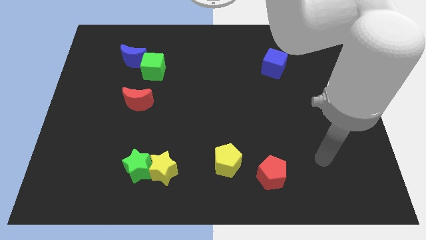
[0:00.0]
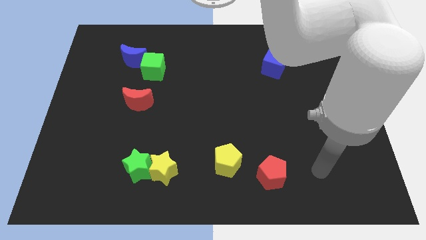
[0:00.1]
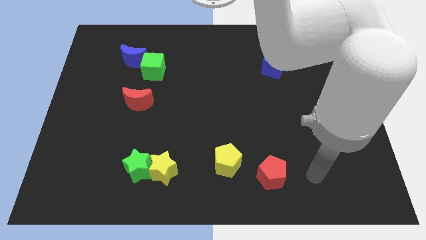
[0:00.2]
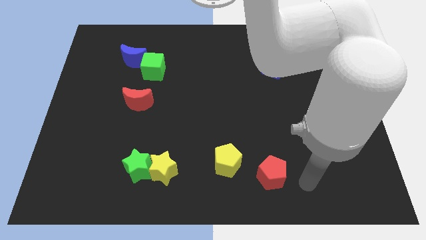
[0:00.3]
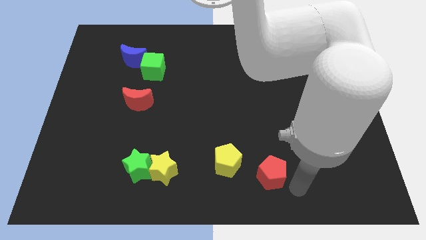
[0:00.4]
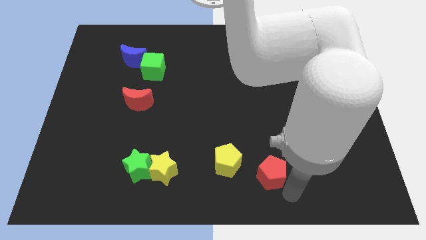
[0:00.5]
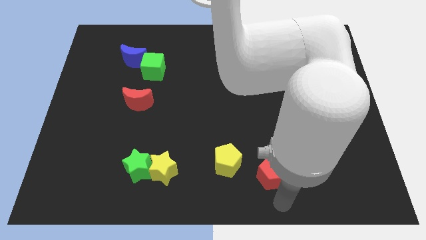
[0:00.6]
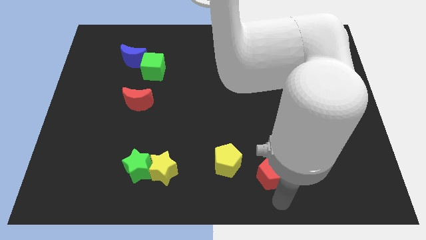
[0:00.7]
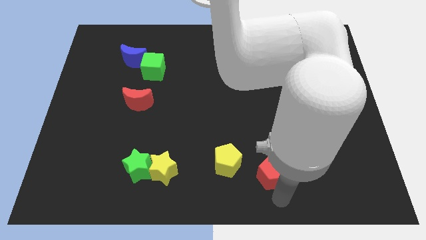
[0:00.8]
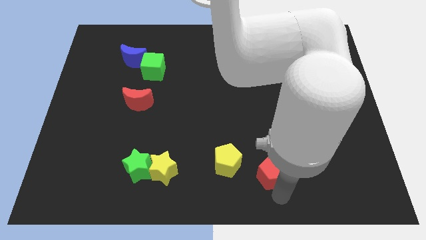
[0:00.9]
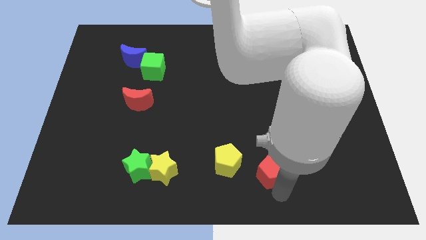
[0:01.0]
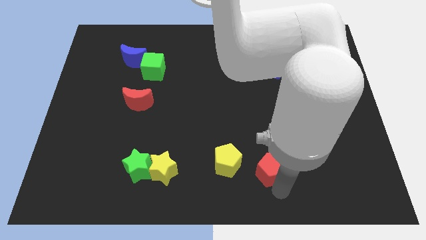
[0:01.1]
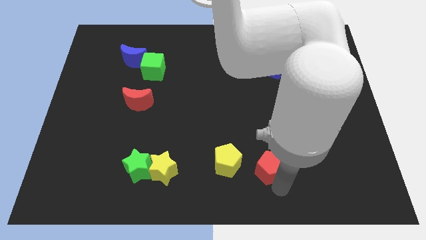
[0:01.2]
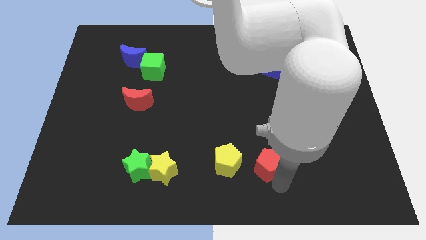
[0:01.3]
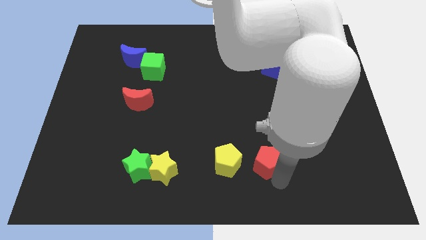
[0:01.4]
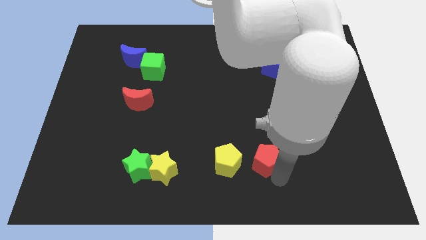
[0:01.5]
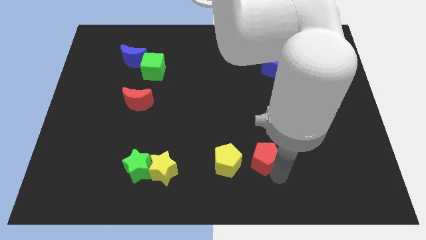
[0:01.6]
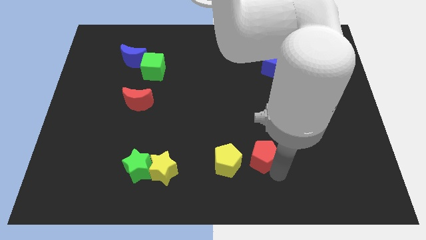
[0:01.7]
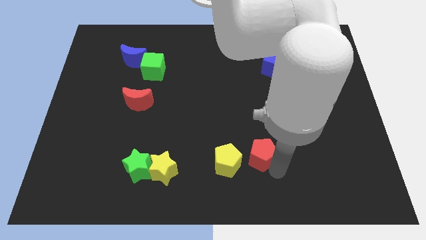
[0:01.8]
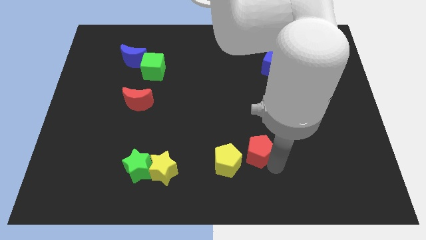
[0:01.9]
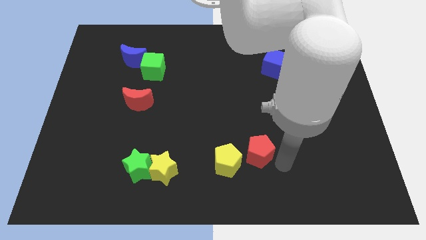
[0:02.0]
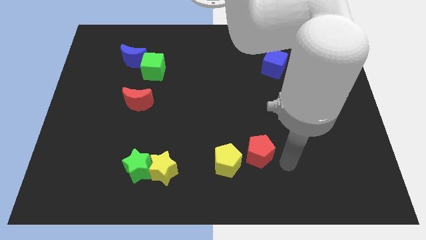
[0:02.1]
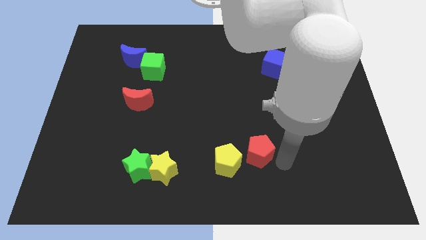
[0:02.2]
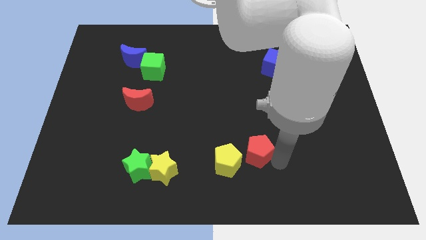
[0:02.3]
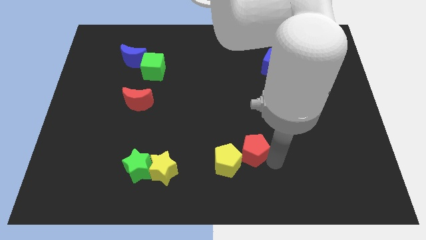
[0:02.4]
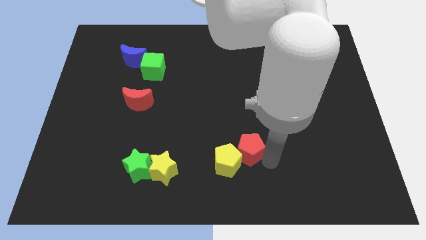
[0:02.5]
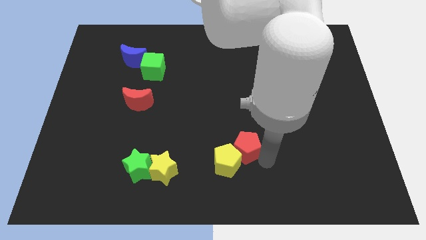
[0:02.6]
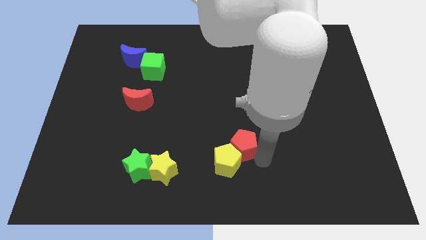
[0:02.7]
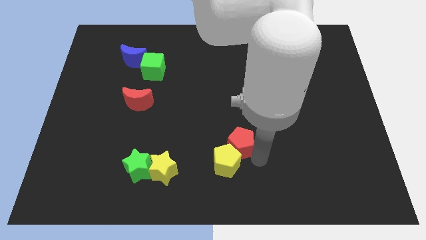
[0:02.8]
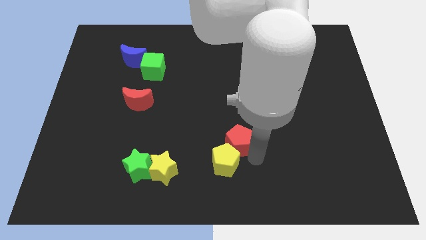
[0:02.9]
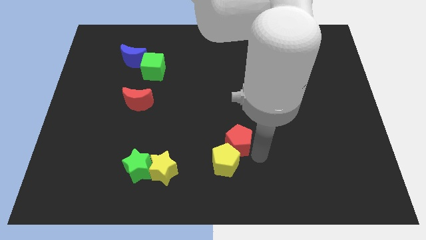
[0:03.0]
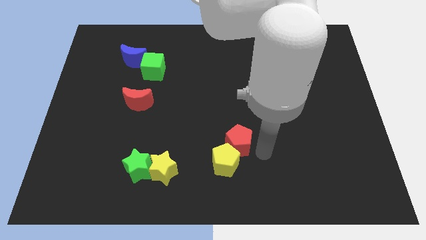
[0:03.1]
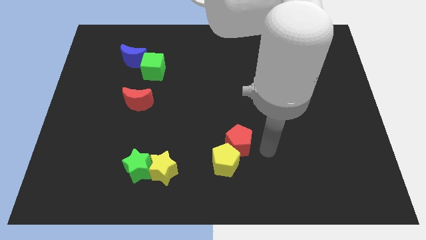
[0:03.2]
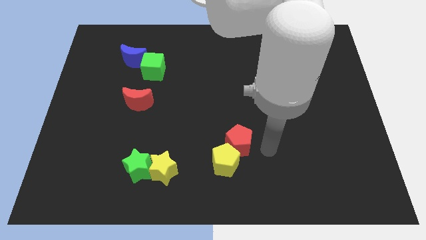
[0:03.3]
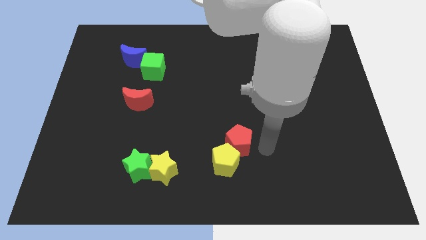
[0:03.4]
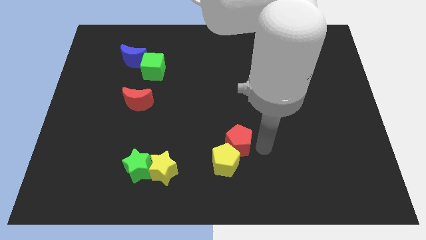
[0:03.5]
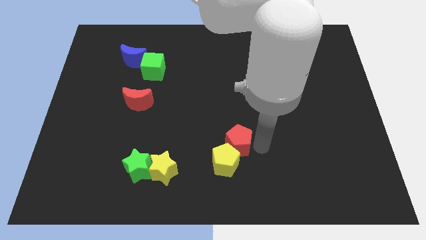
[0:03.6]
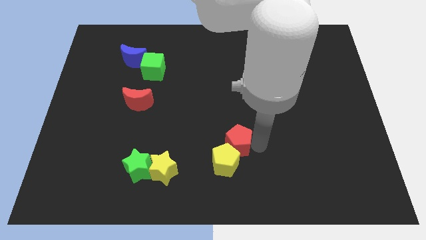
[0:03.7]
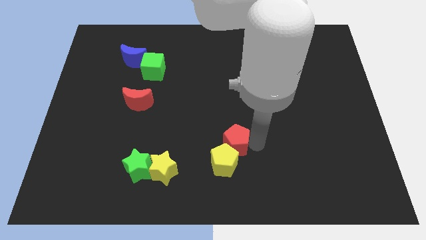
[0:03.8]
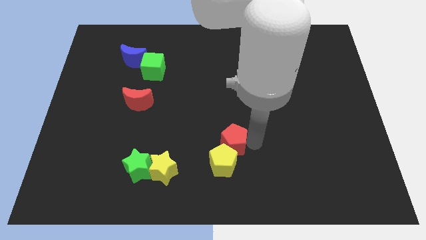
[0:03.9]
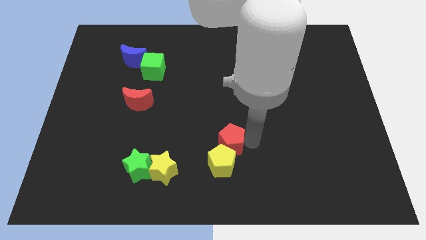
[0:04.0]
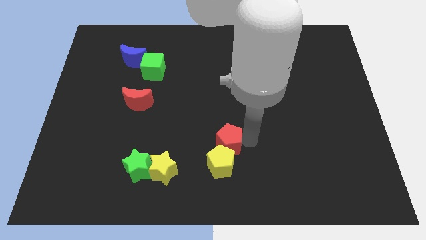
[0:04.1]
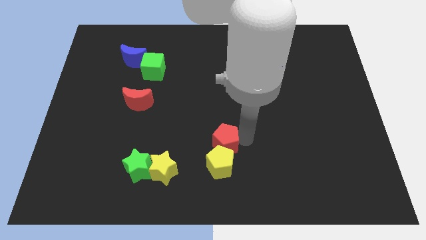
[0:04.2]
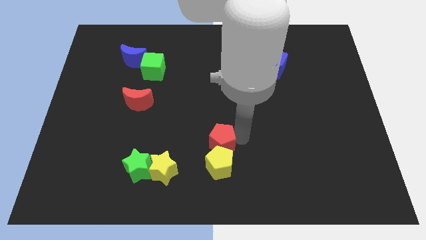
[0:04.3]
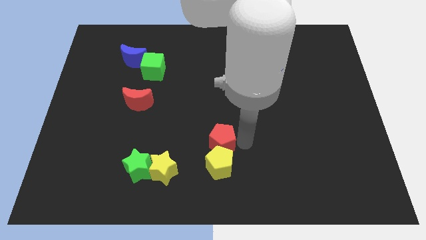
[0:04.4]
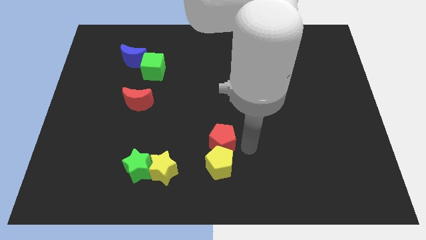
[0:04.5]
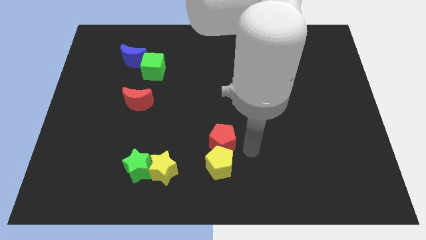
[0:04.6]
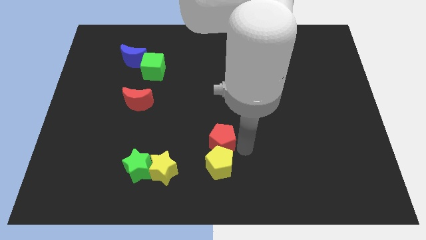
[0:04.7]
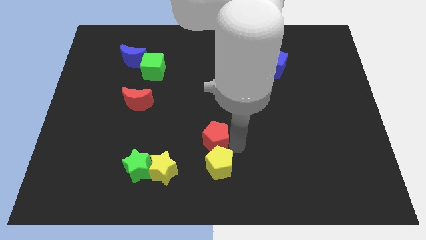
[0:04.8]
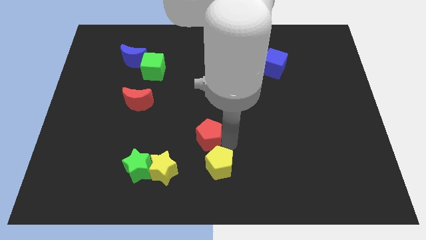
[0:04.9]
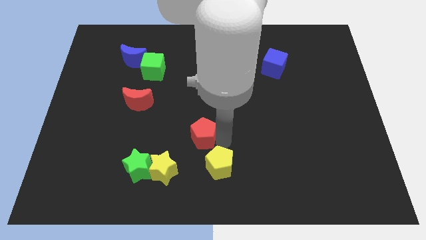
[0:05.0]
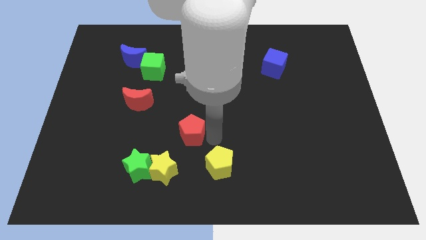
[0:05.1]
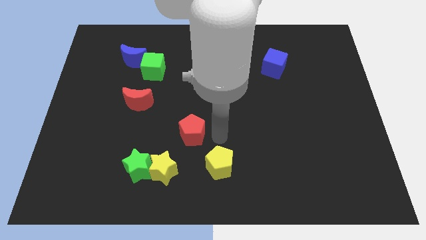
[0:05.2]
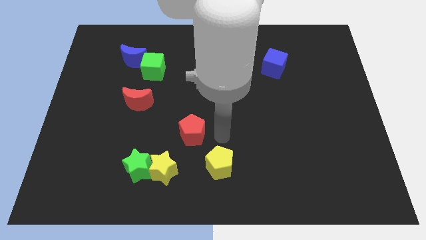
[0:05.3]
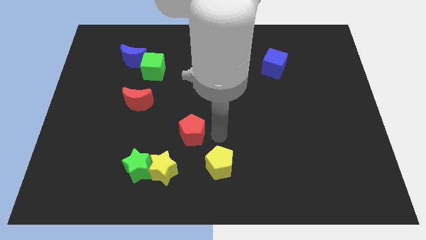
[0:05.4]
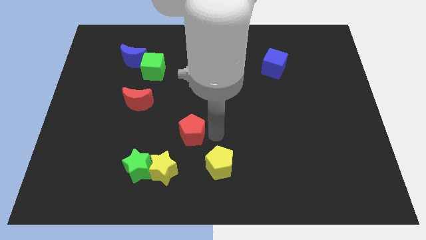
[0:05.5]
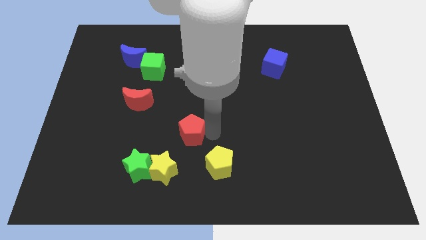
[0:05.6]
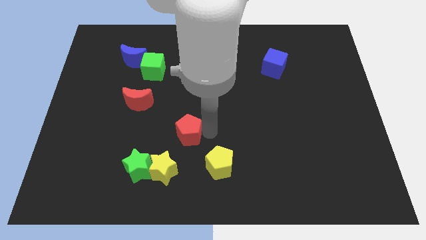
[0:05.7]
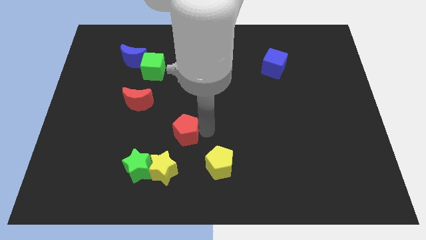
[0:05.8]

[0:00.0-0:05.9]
push the red pentagon above the yellow star

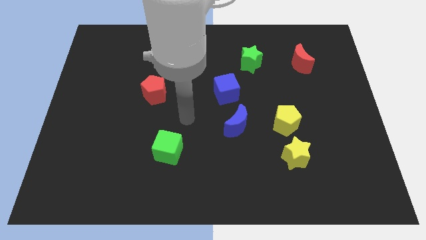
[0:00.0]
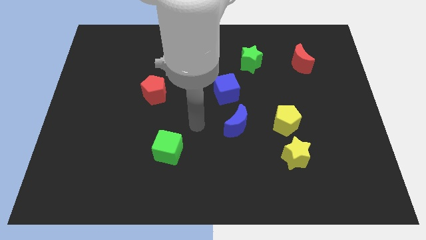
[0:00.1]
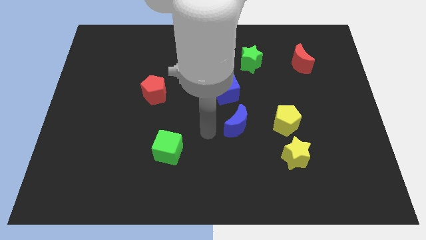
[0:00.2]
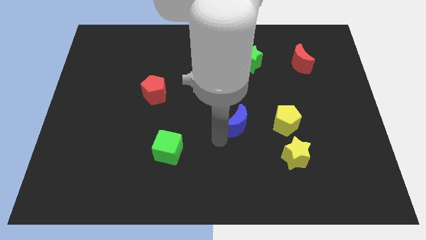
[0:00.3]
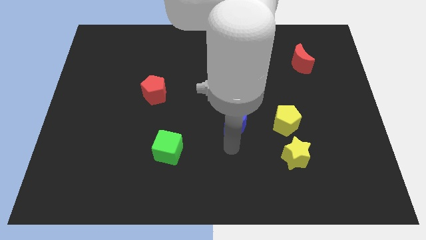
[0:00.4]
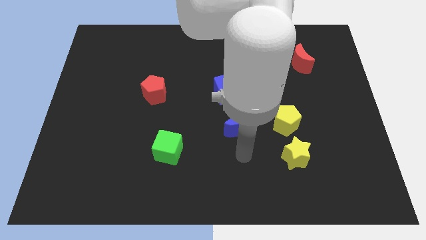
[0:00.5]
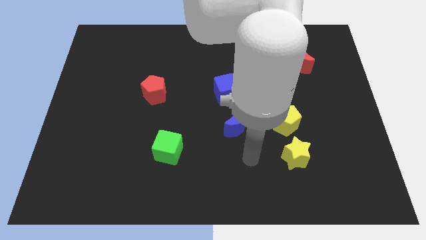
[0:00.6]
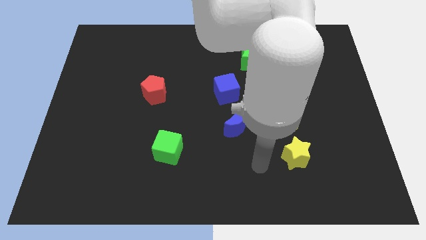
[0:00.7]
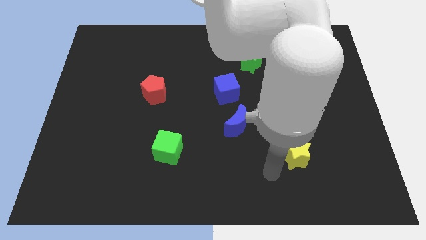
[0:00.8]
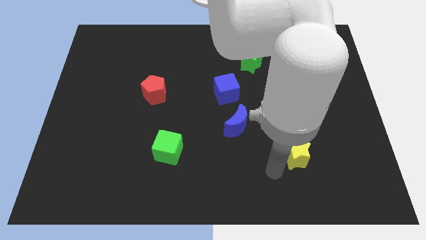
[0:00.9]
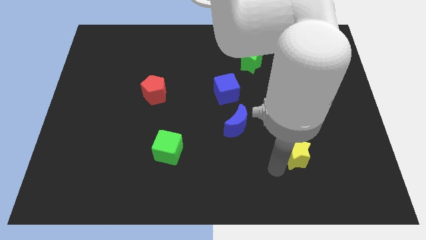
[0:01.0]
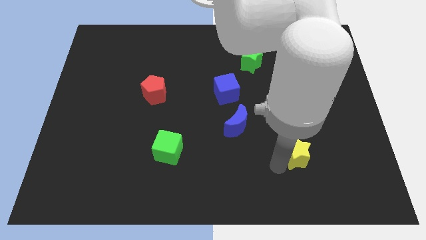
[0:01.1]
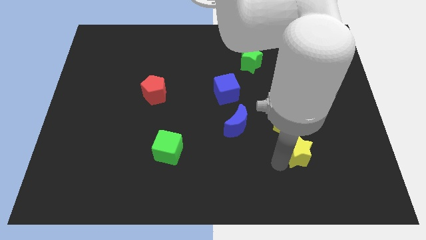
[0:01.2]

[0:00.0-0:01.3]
slide the yellow star diagonally down and to the right of the yellow pentagon
